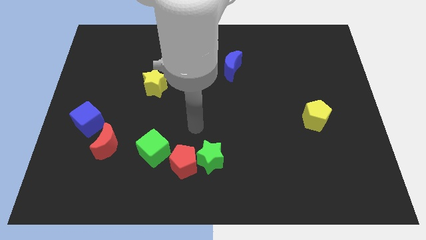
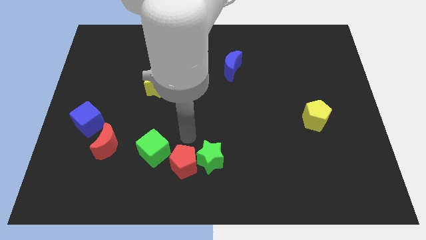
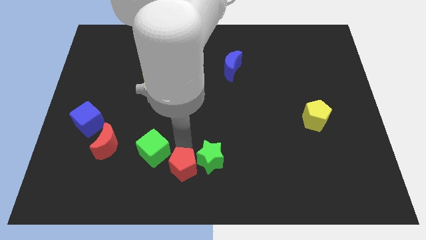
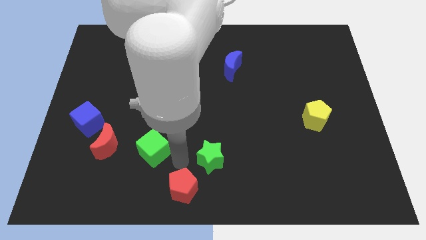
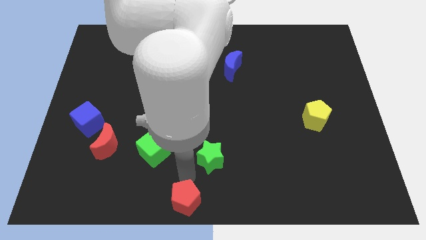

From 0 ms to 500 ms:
separate the green star from the red pentagon

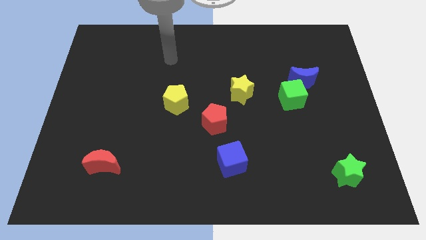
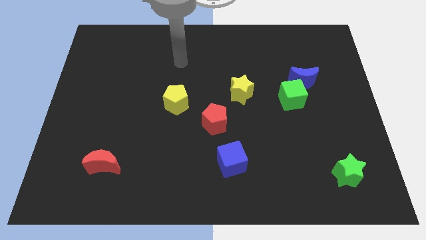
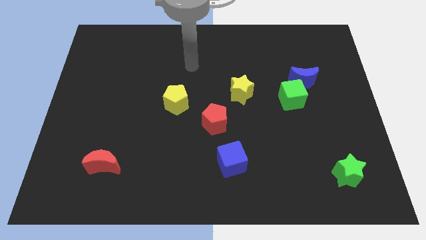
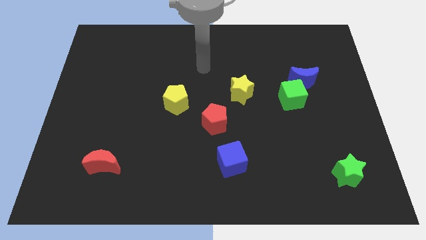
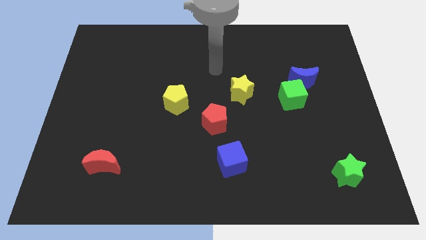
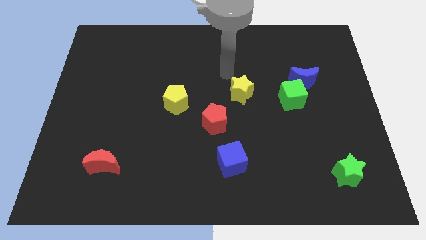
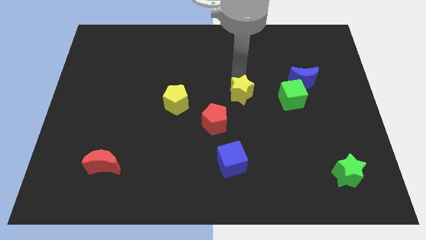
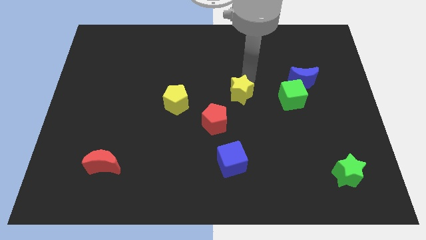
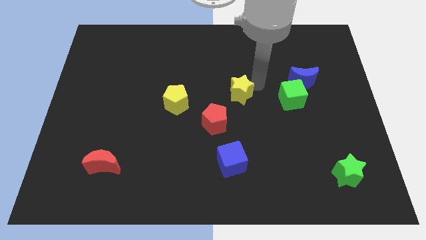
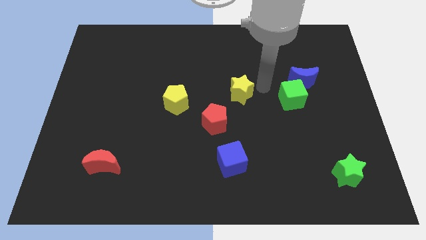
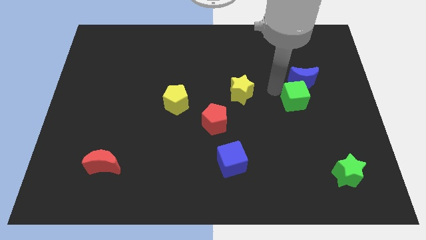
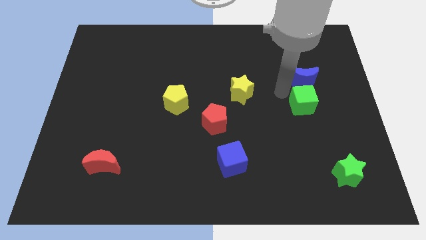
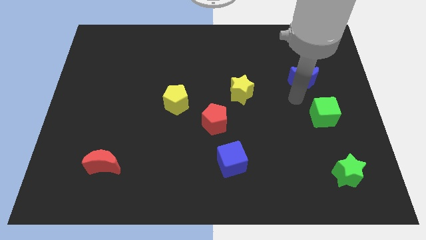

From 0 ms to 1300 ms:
pull the blue moon apart from the green cube

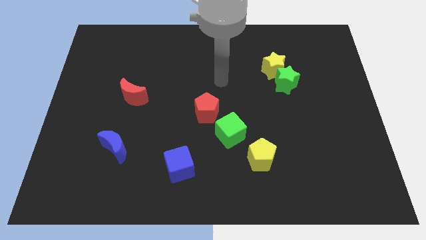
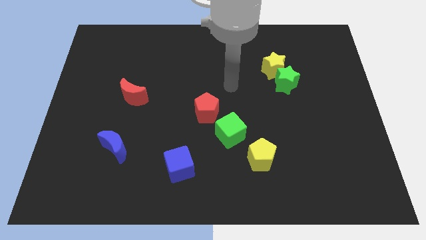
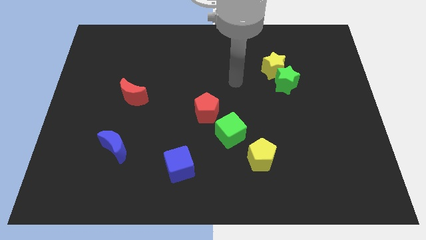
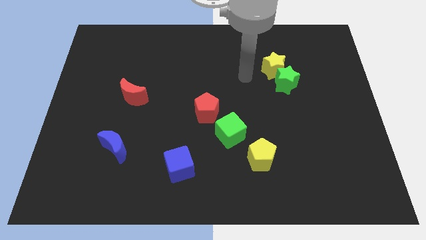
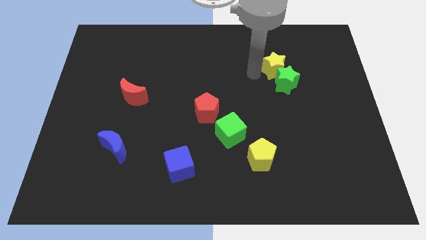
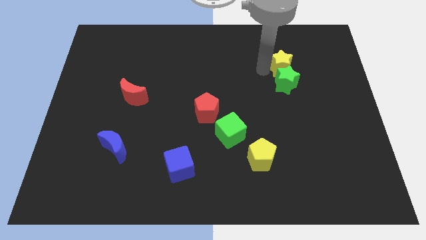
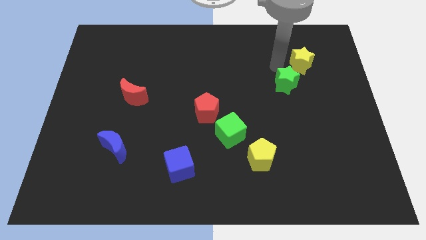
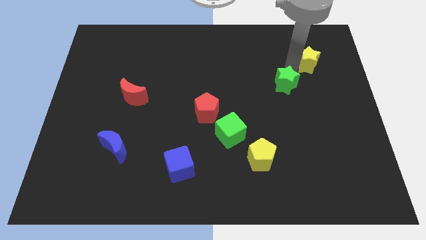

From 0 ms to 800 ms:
separate the green star from the yellow star

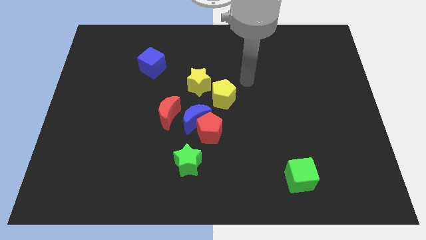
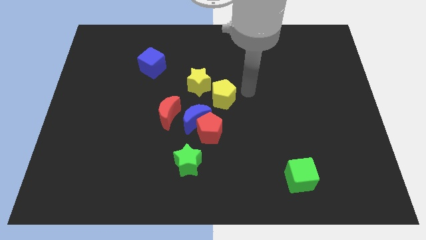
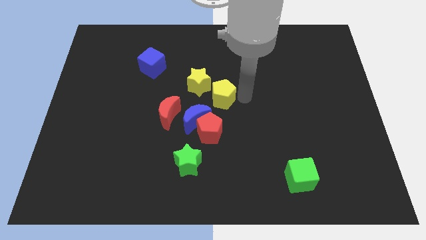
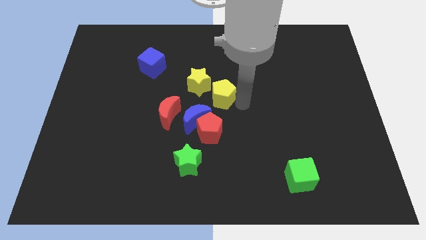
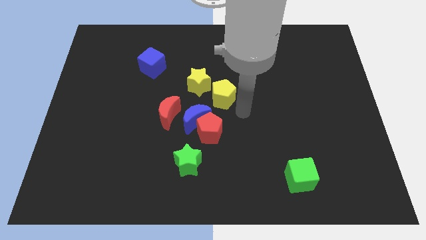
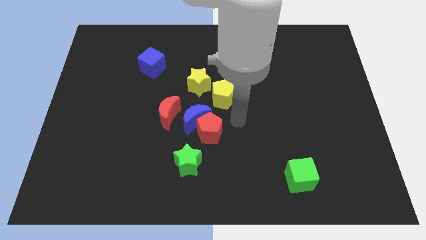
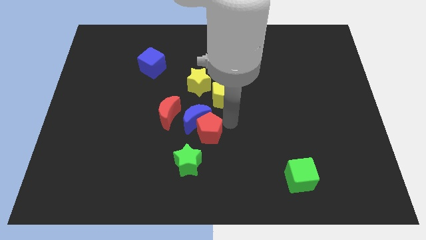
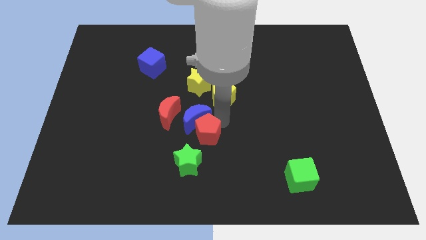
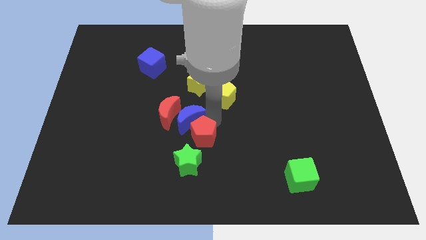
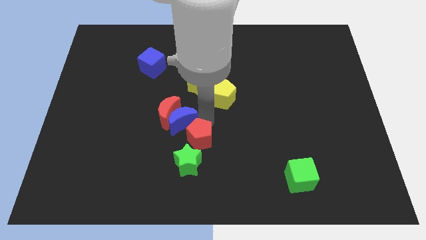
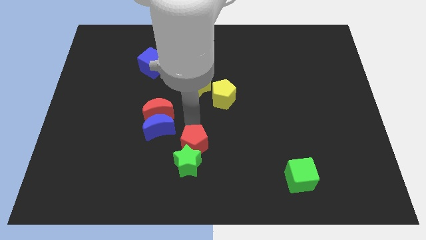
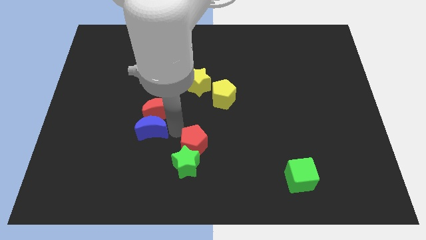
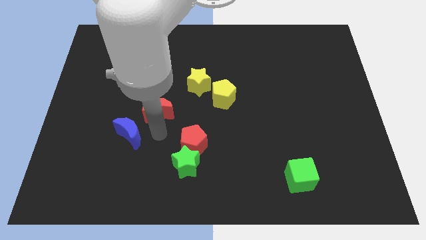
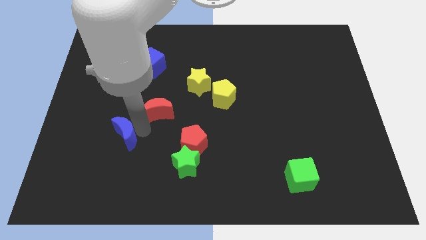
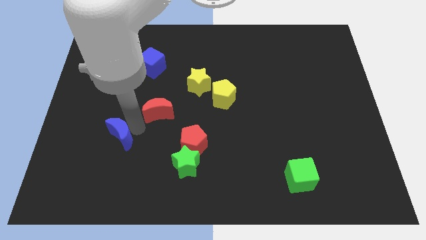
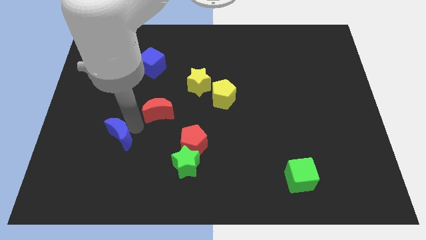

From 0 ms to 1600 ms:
pull the red moon apart from the blue moon

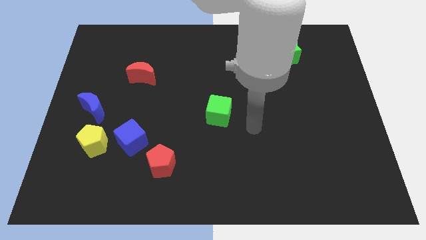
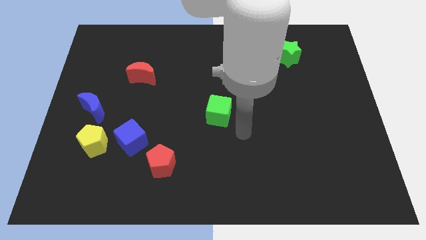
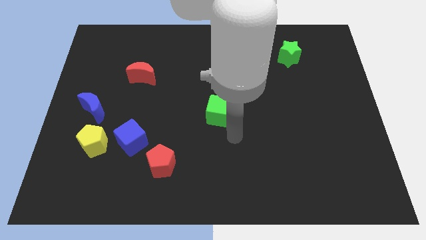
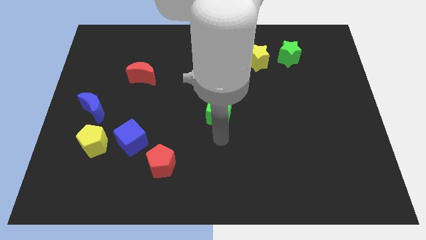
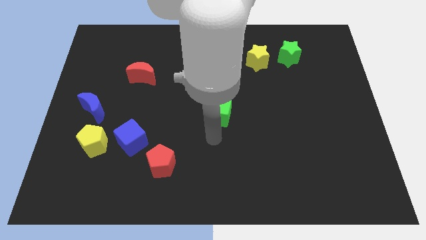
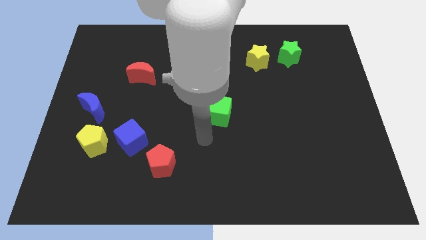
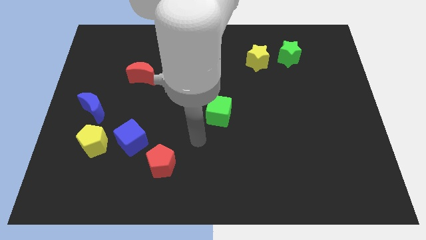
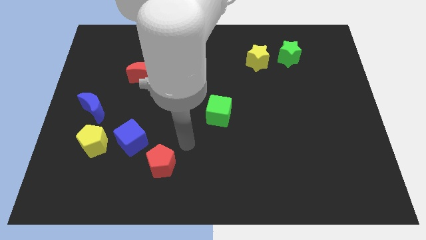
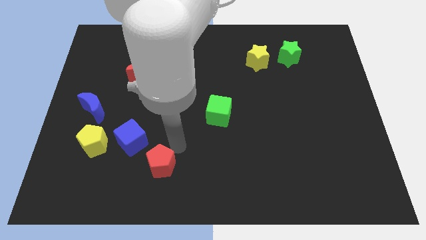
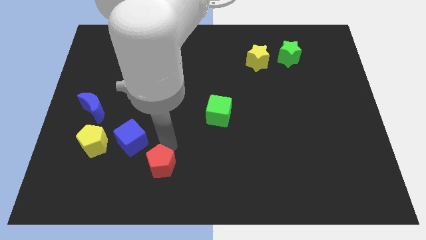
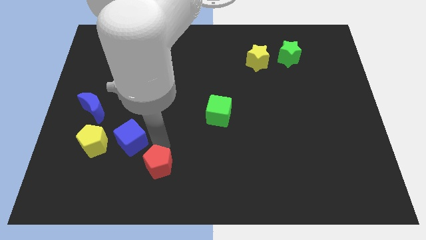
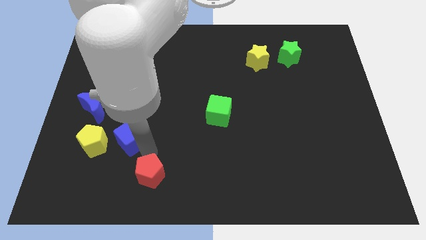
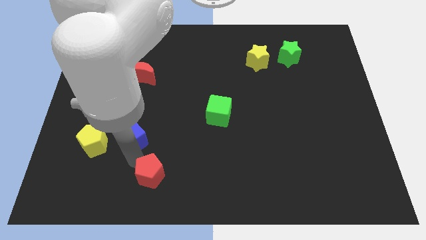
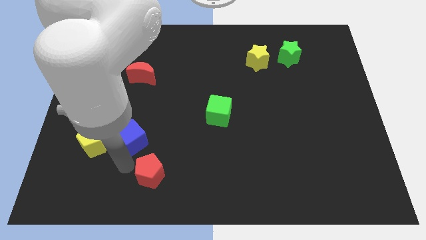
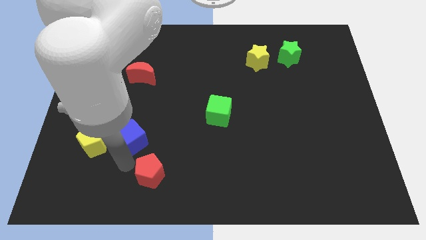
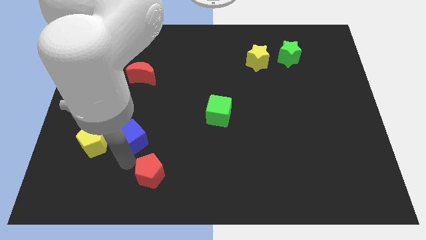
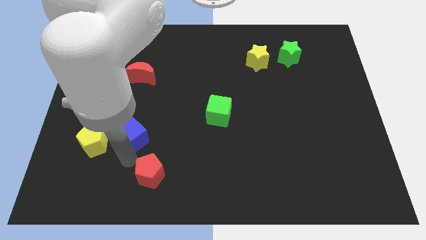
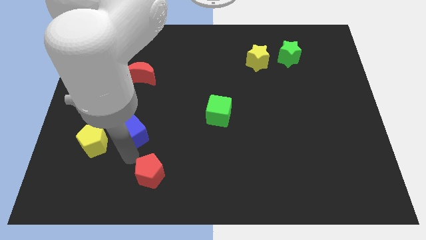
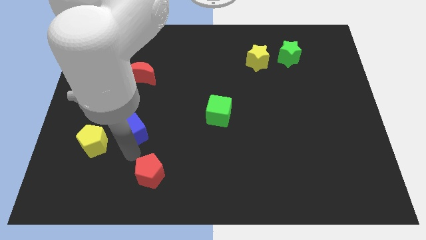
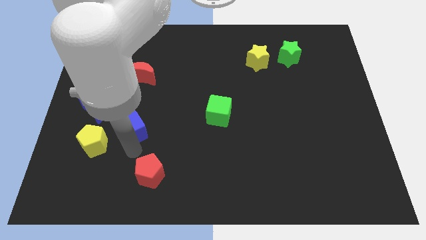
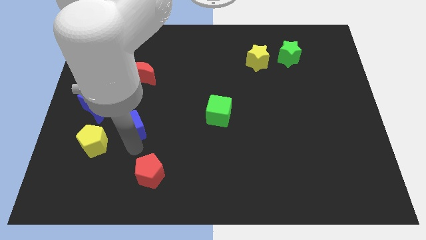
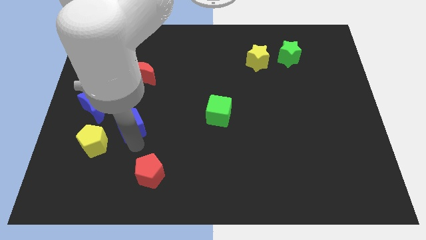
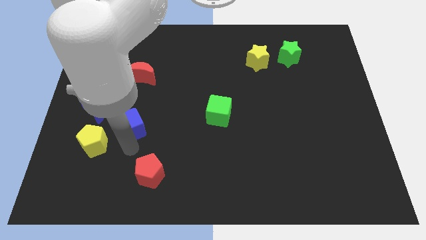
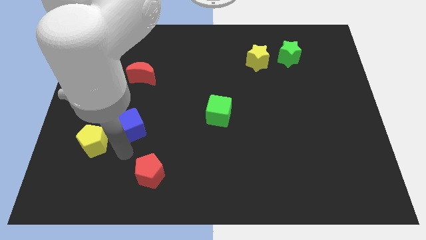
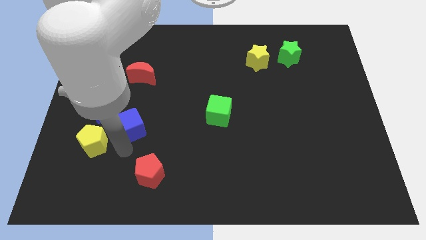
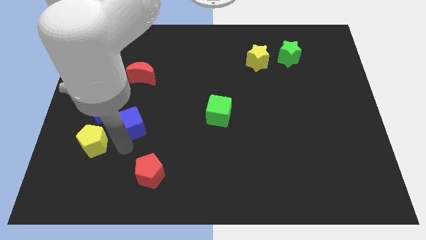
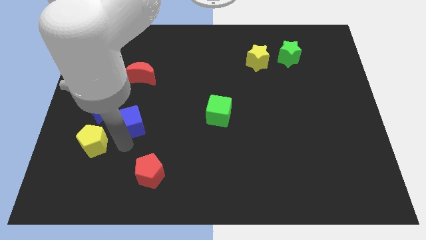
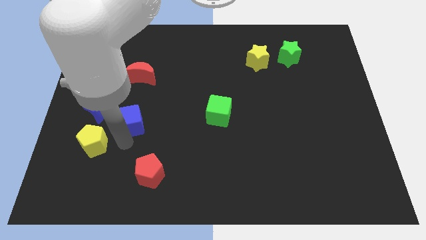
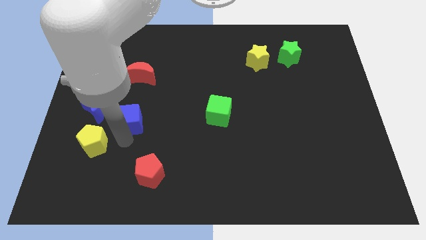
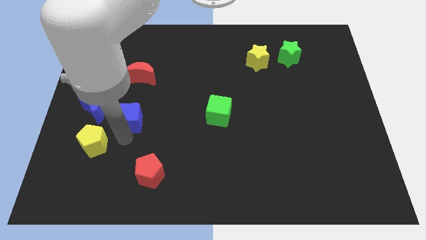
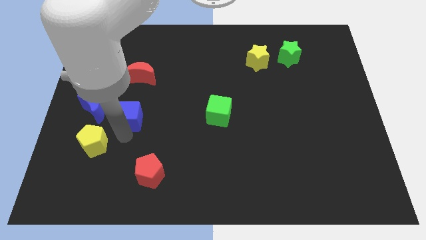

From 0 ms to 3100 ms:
pull the blue cube apart from the yellow pentagon and red pentagon

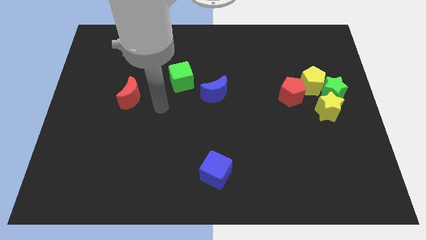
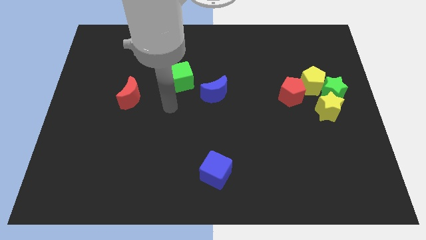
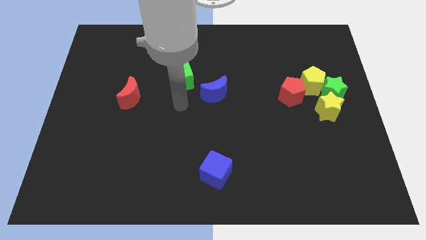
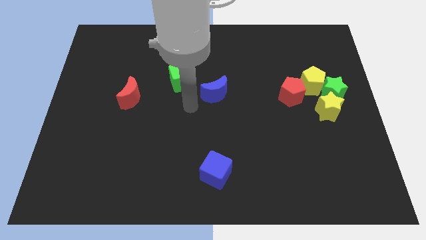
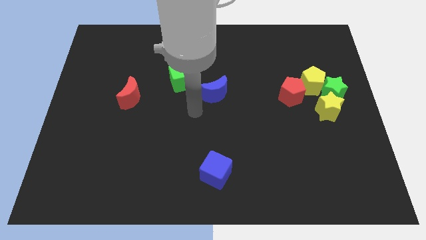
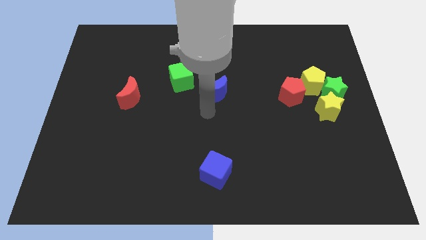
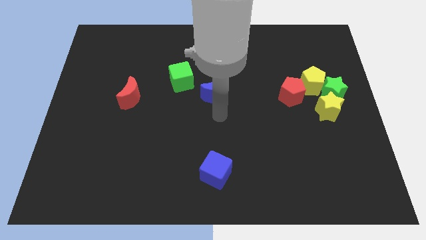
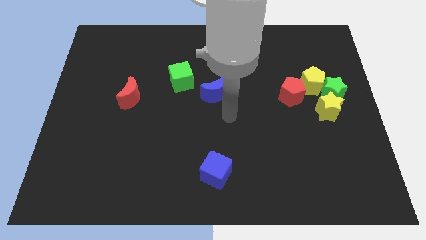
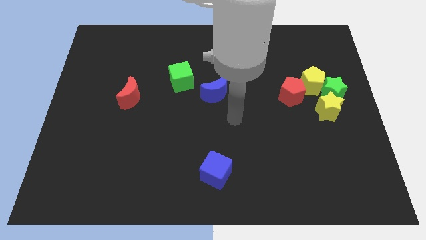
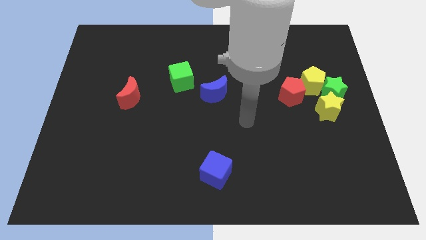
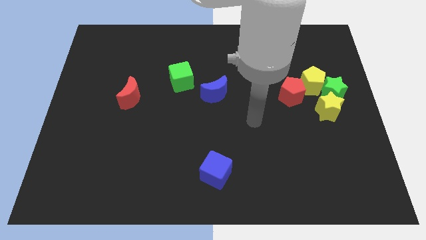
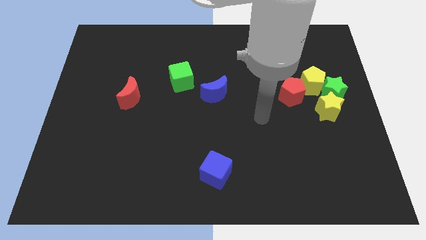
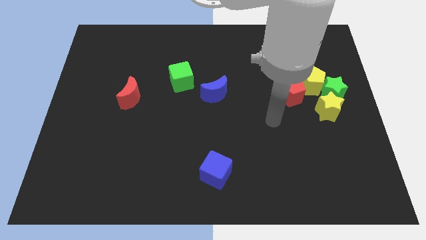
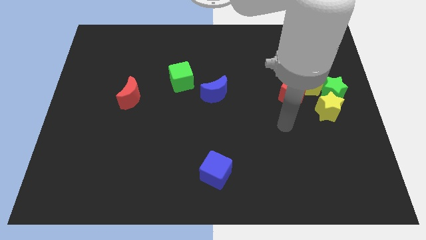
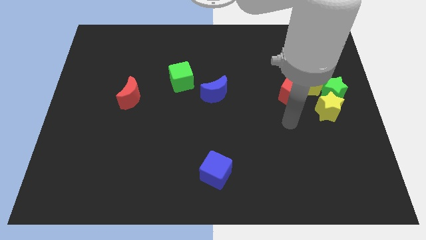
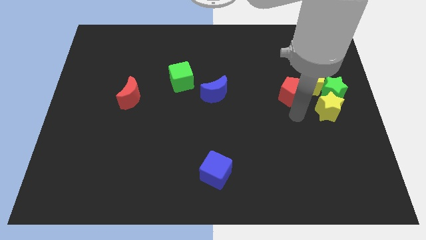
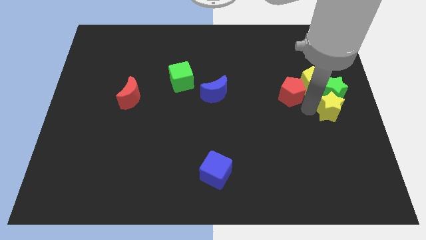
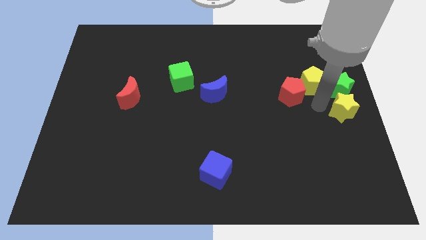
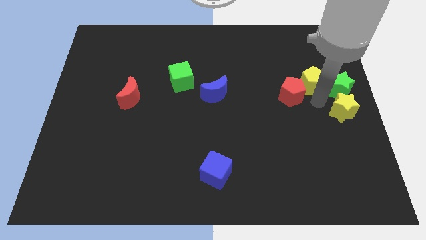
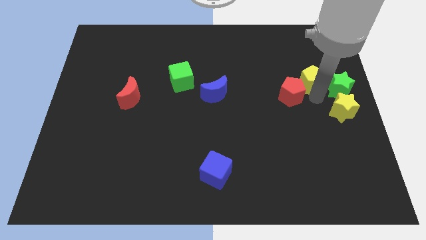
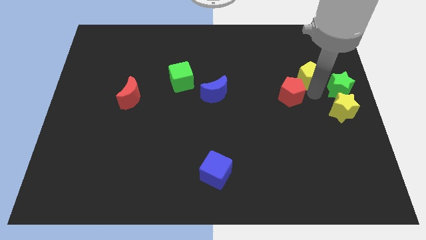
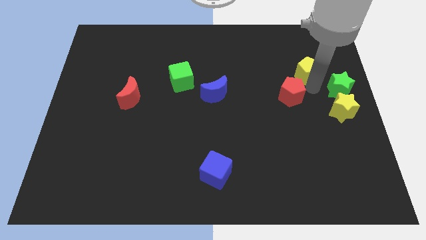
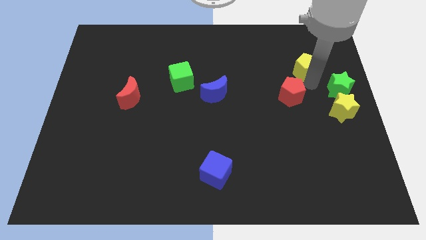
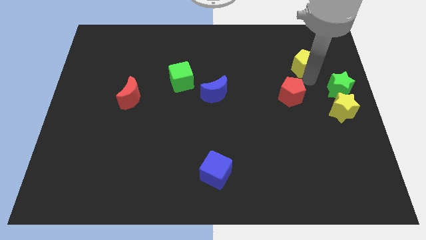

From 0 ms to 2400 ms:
move the yellow pentagon away from the green star, red pentagon, and yellow star
